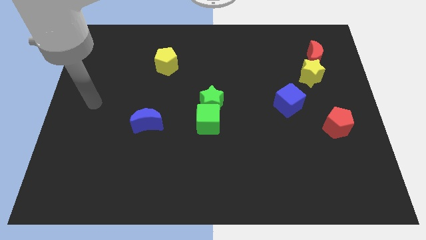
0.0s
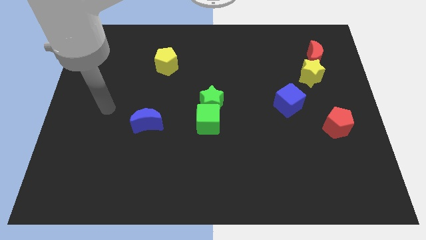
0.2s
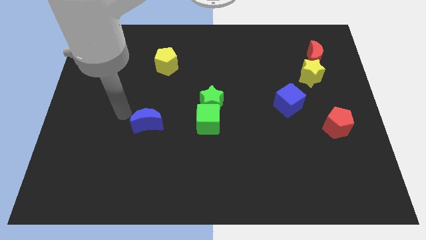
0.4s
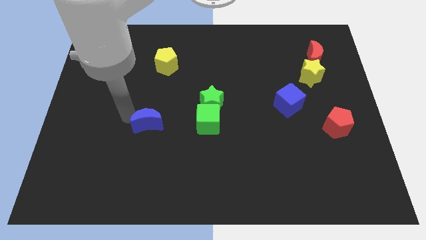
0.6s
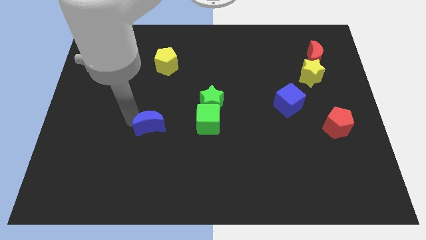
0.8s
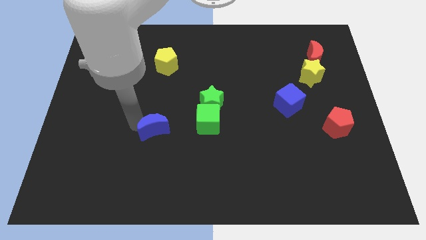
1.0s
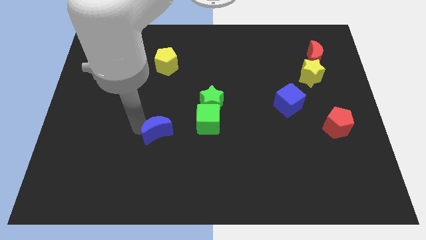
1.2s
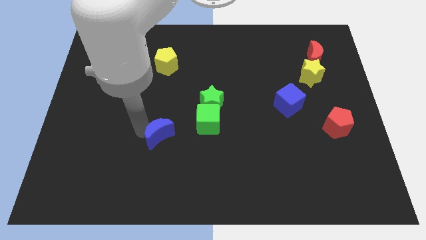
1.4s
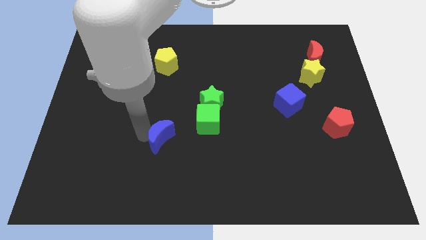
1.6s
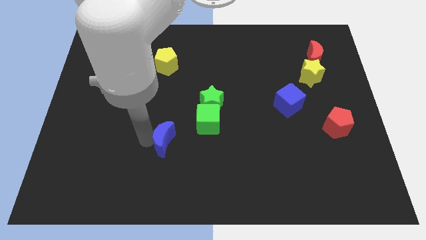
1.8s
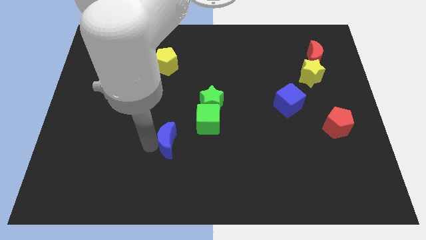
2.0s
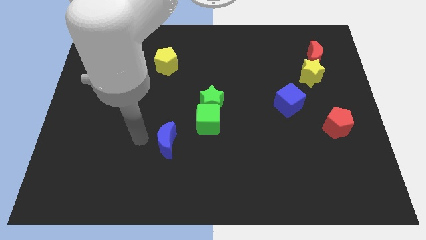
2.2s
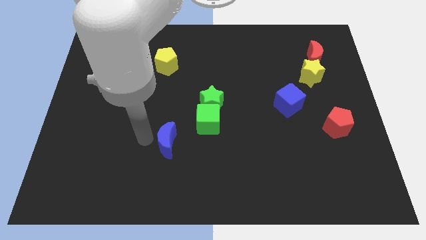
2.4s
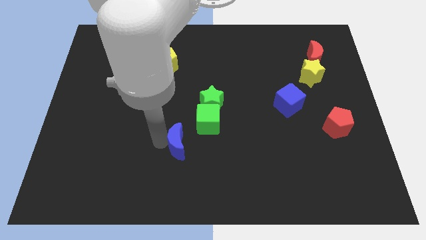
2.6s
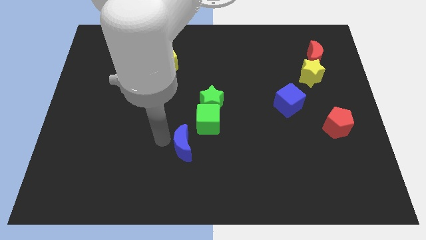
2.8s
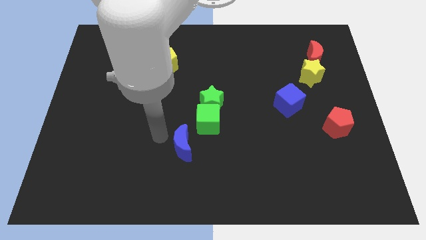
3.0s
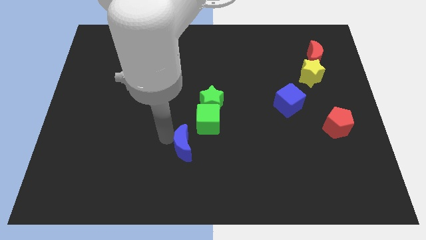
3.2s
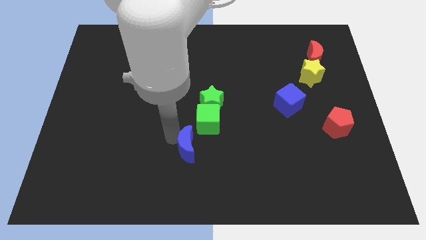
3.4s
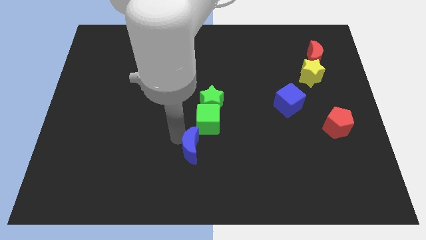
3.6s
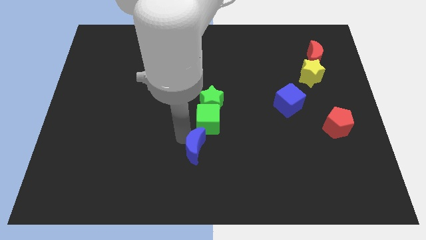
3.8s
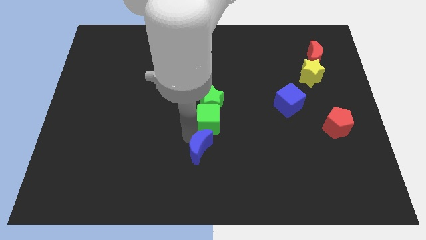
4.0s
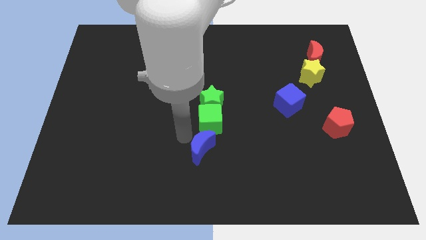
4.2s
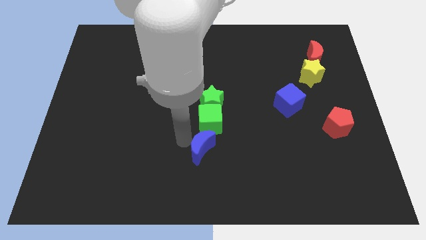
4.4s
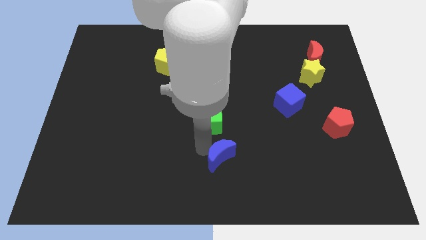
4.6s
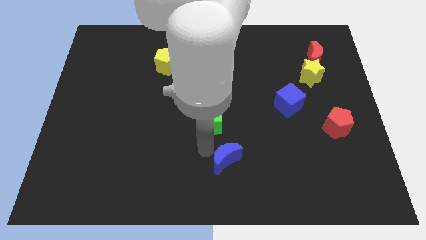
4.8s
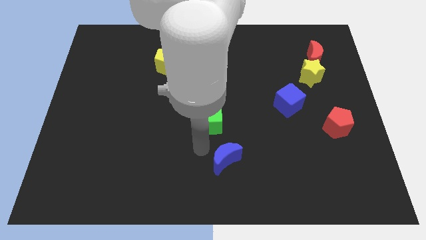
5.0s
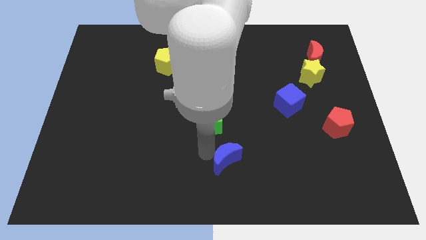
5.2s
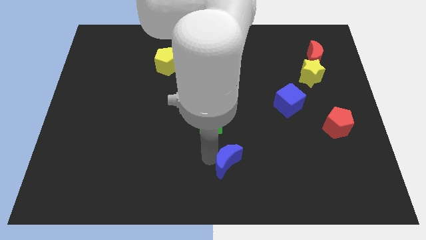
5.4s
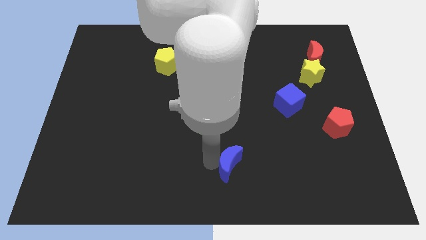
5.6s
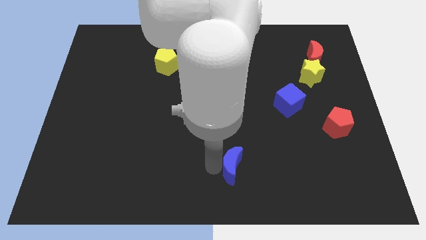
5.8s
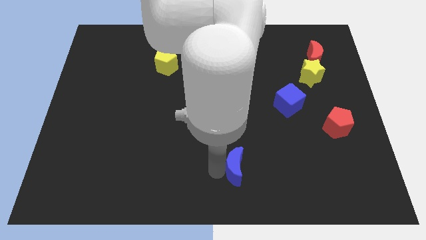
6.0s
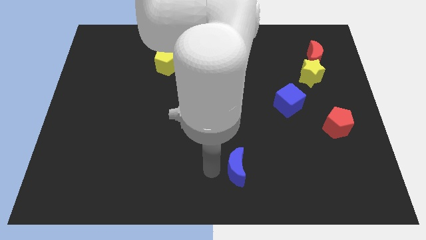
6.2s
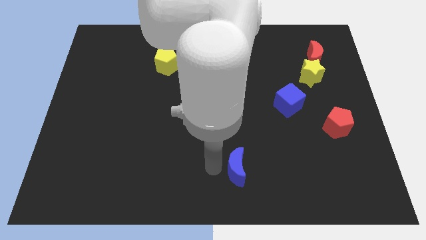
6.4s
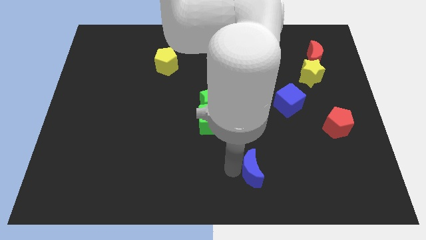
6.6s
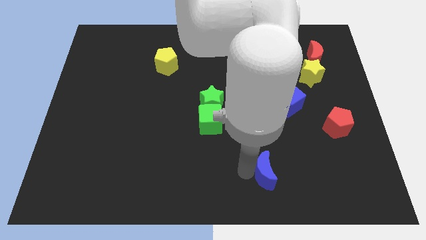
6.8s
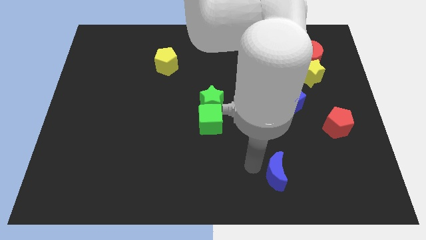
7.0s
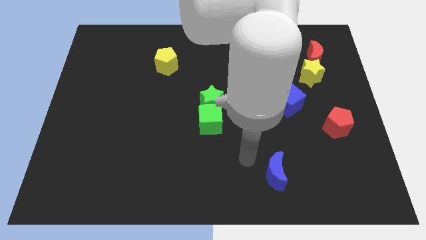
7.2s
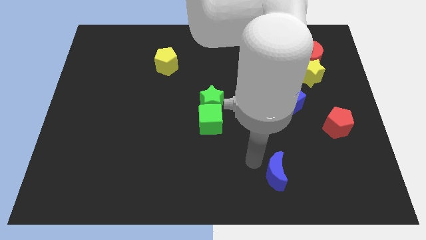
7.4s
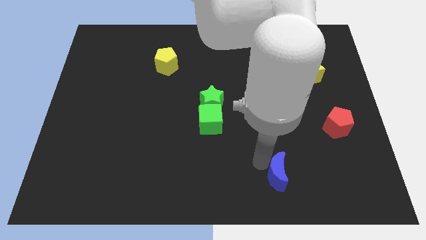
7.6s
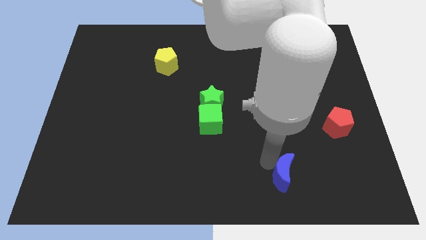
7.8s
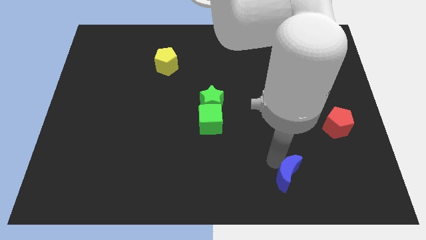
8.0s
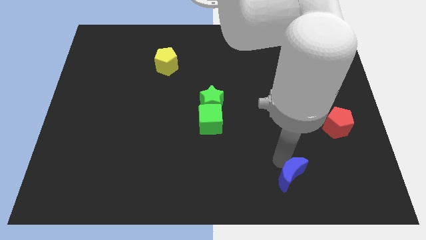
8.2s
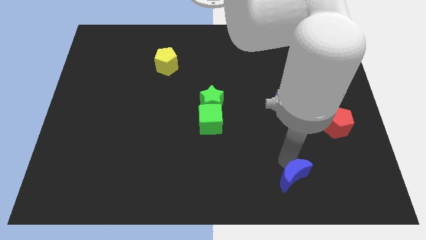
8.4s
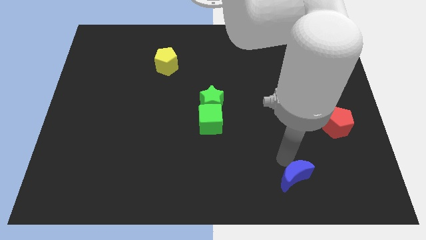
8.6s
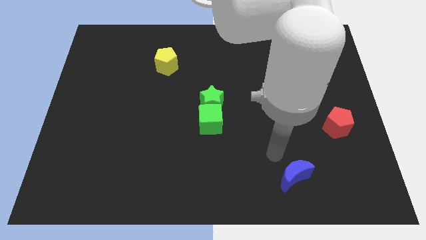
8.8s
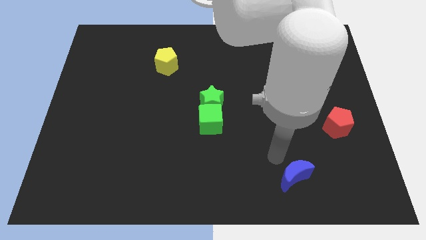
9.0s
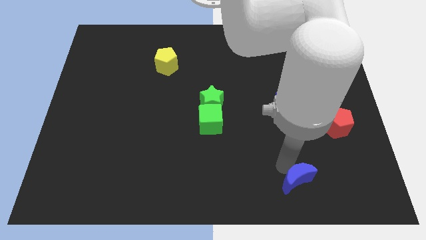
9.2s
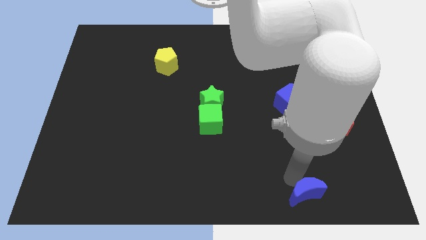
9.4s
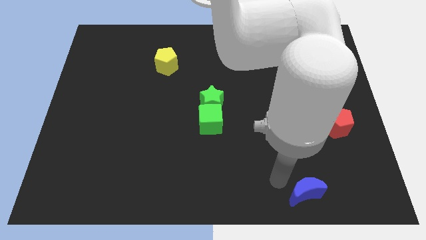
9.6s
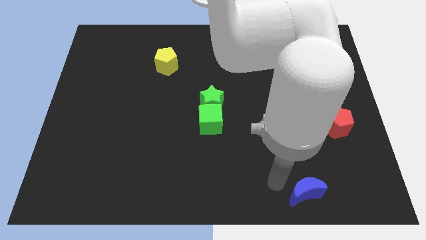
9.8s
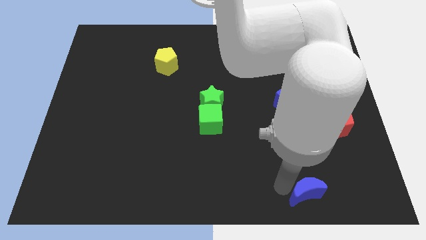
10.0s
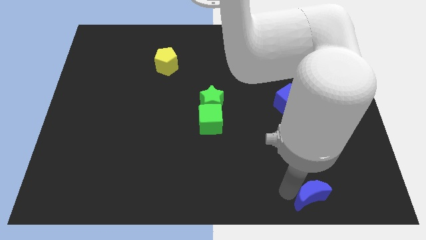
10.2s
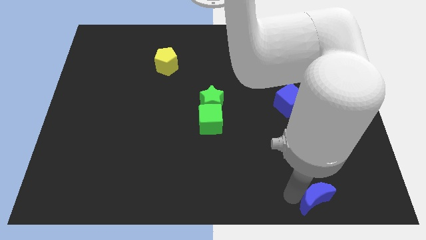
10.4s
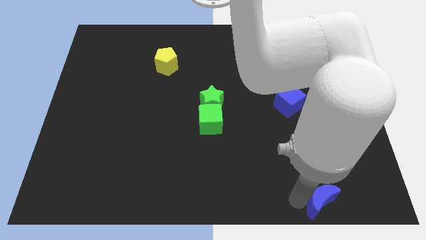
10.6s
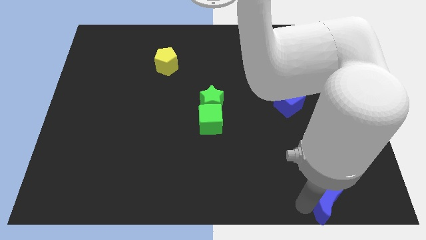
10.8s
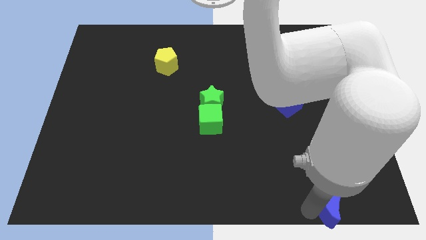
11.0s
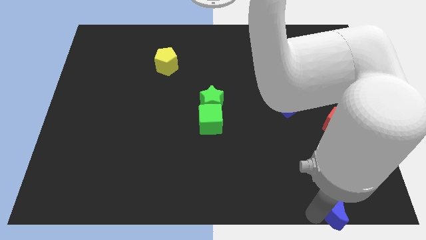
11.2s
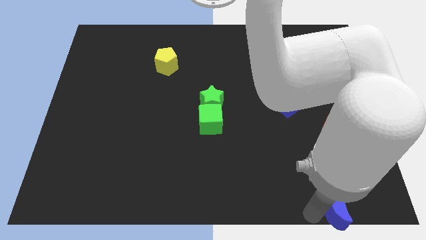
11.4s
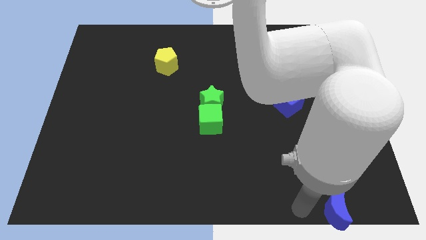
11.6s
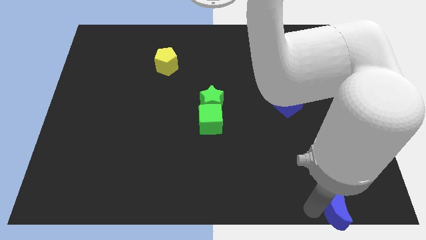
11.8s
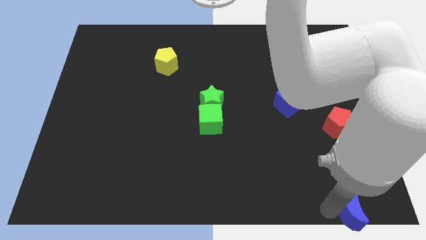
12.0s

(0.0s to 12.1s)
push the blue moon to the lower right corner
